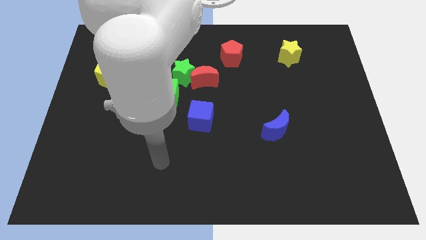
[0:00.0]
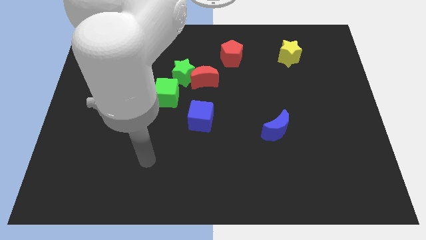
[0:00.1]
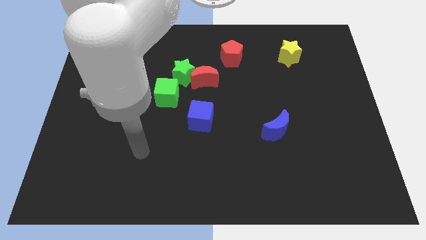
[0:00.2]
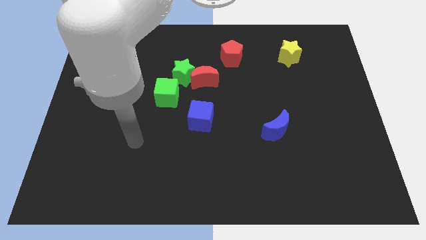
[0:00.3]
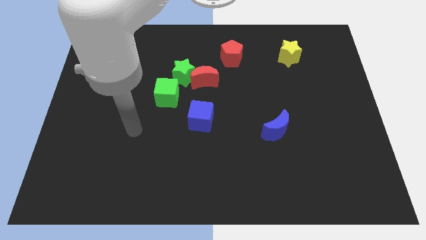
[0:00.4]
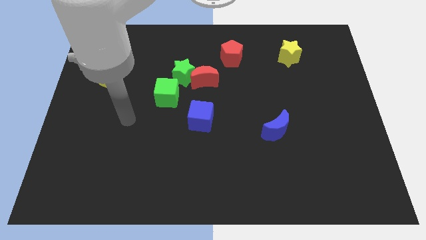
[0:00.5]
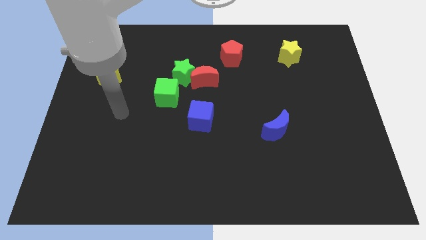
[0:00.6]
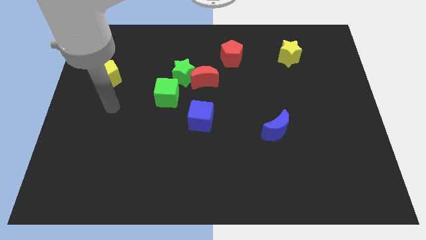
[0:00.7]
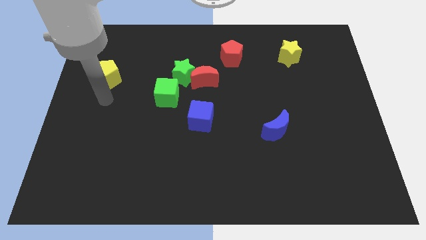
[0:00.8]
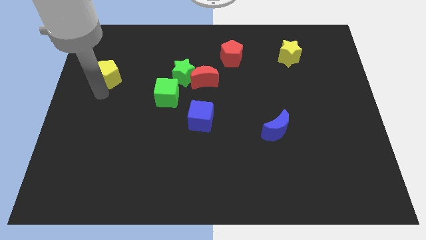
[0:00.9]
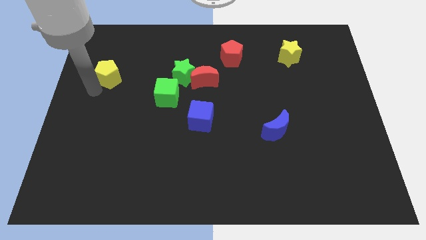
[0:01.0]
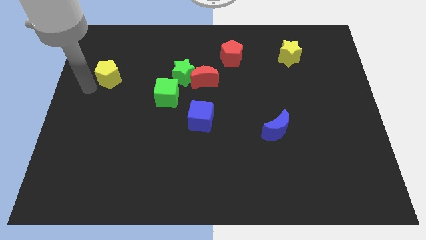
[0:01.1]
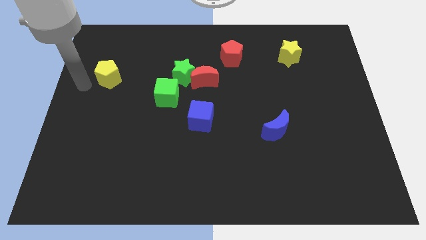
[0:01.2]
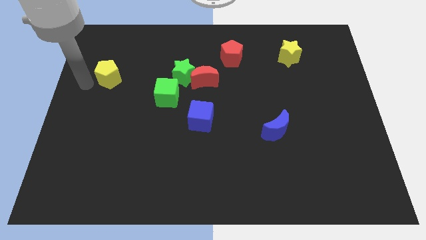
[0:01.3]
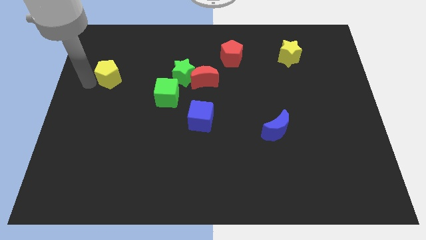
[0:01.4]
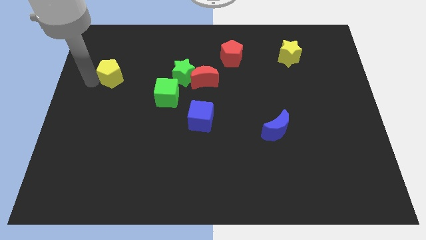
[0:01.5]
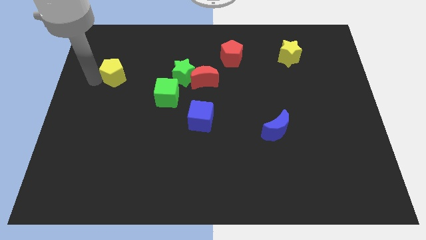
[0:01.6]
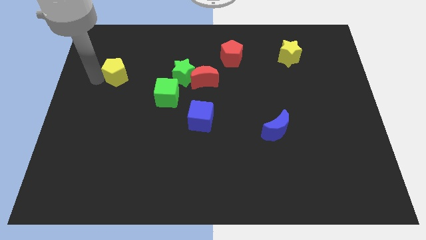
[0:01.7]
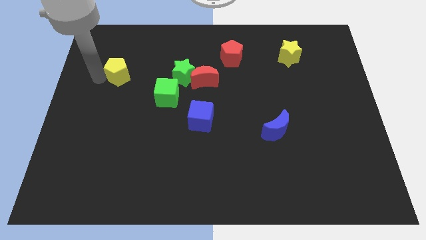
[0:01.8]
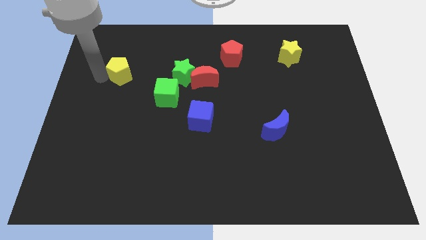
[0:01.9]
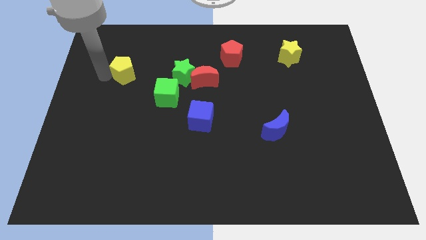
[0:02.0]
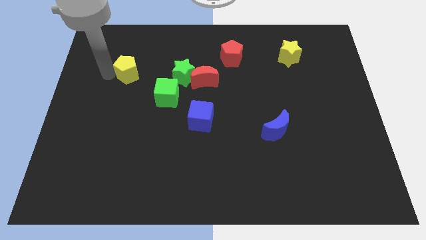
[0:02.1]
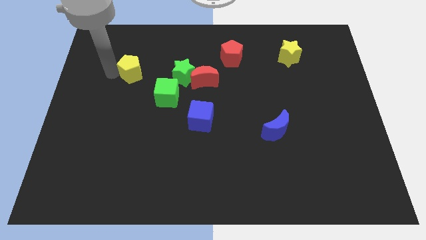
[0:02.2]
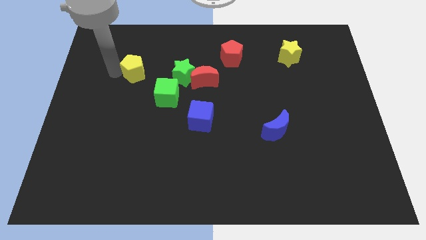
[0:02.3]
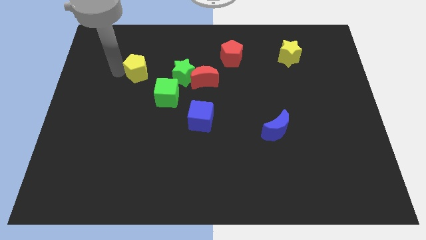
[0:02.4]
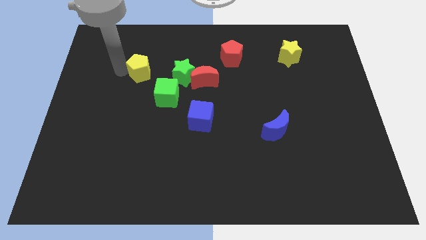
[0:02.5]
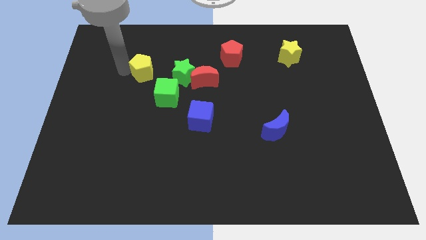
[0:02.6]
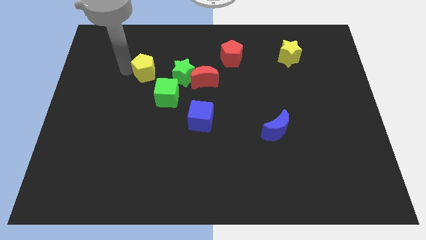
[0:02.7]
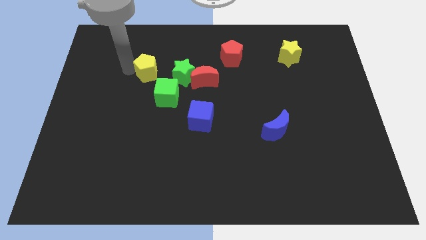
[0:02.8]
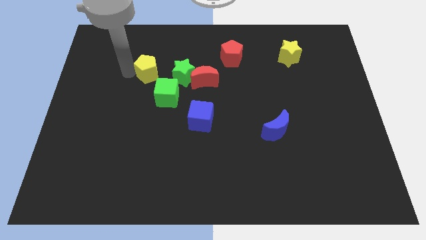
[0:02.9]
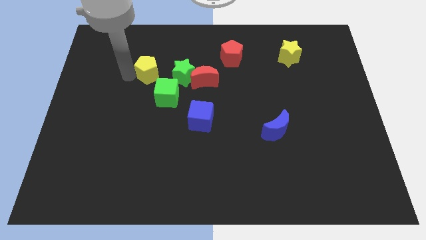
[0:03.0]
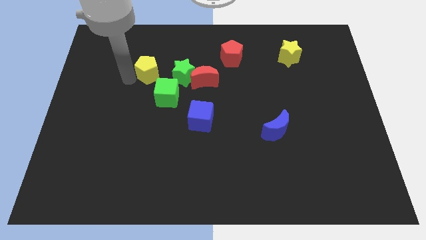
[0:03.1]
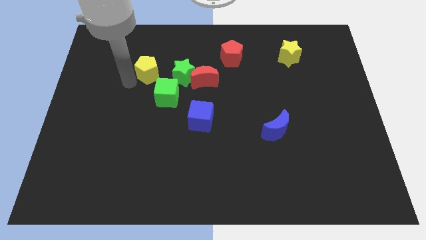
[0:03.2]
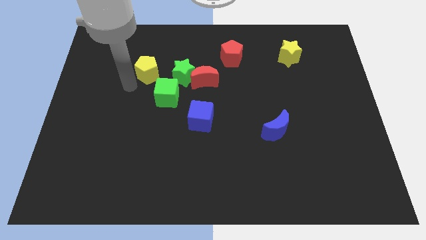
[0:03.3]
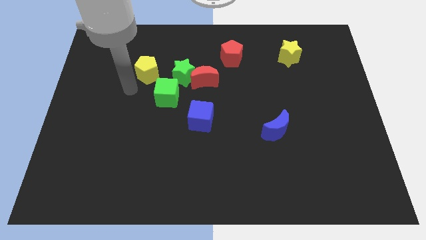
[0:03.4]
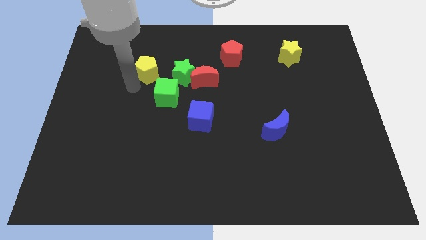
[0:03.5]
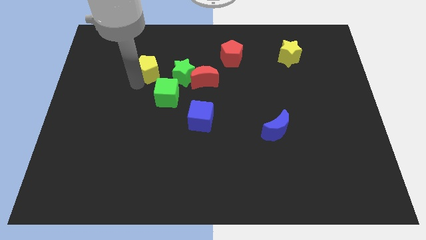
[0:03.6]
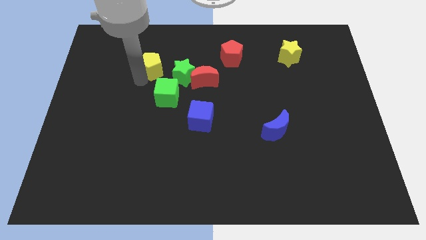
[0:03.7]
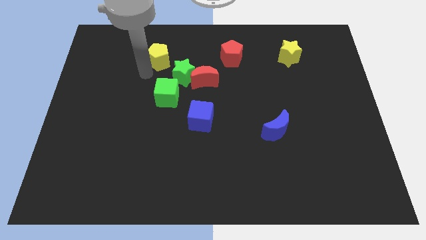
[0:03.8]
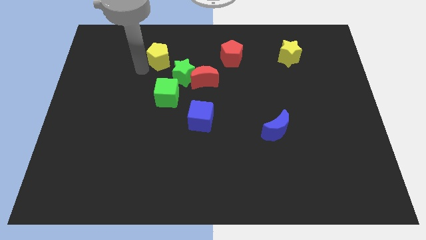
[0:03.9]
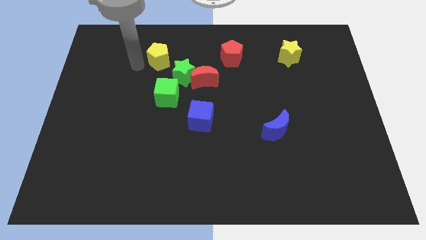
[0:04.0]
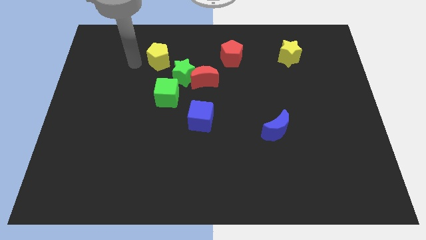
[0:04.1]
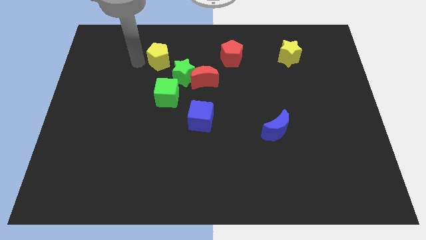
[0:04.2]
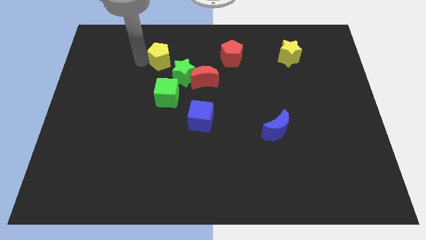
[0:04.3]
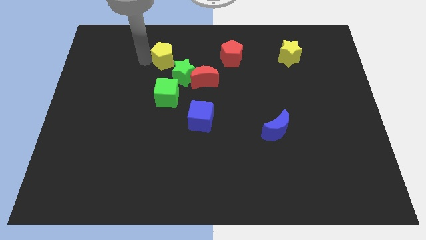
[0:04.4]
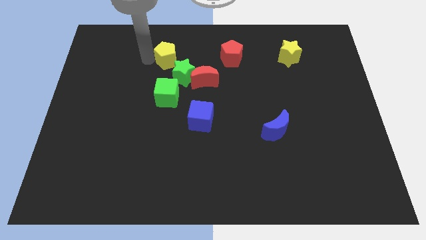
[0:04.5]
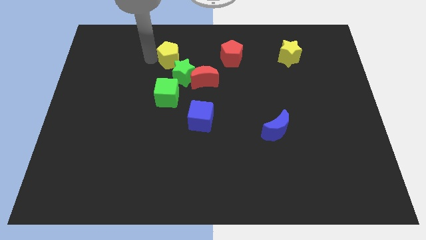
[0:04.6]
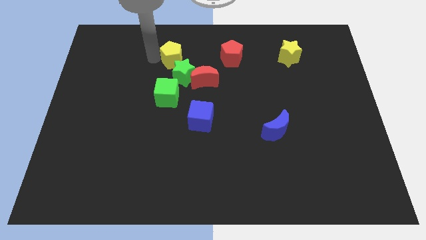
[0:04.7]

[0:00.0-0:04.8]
slide the yellow pentagon just left of the red pentagon

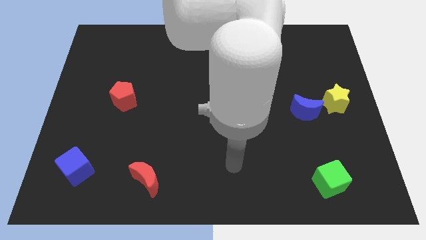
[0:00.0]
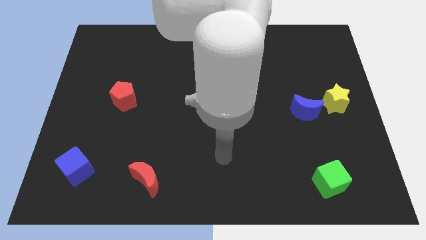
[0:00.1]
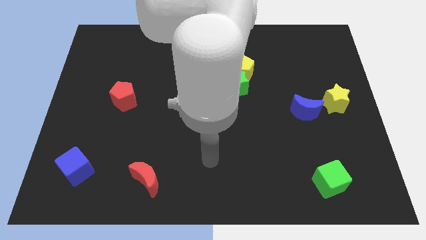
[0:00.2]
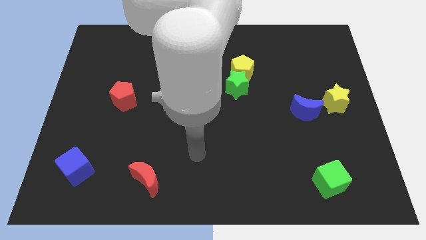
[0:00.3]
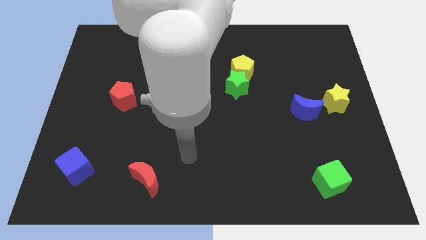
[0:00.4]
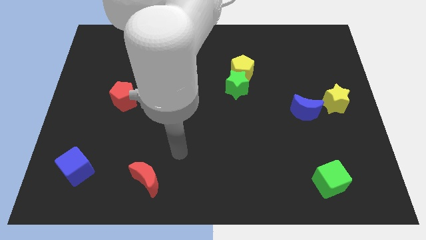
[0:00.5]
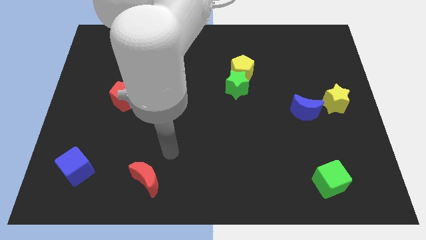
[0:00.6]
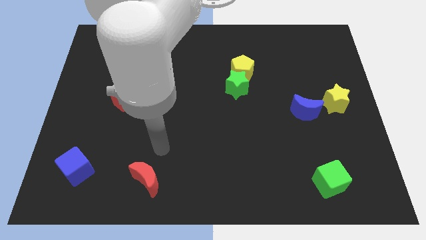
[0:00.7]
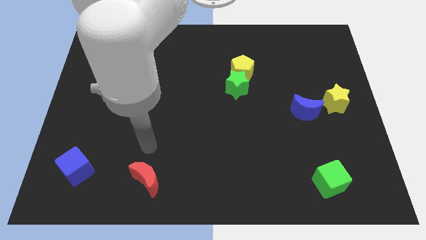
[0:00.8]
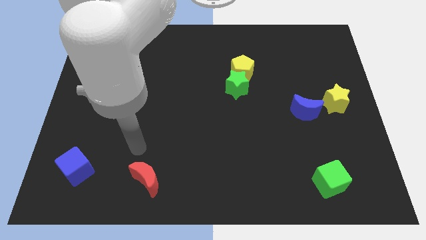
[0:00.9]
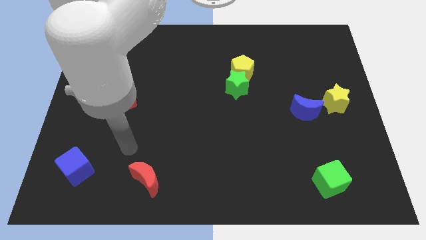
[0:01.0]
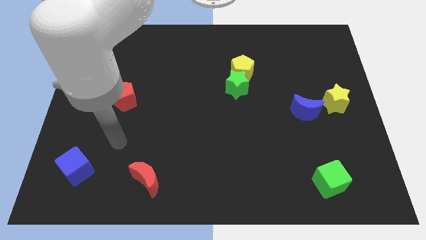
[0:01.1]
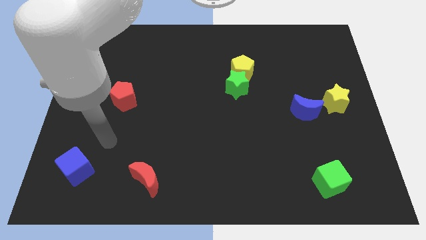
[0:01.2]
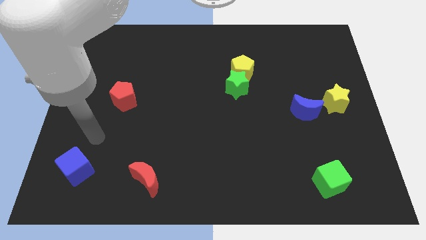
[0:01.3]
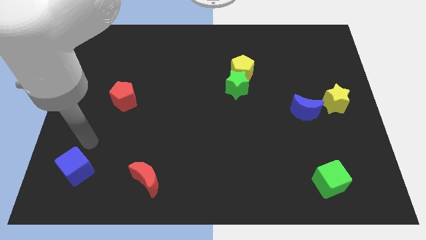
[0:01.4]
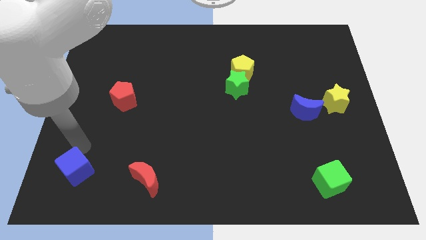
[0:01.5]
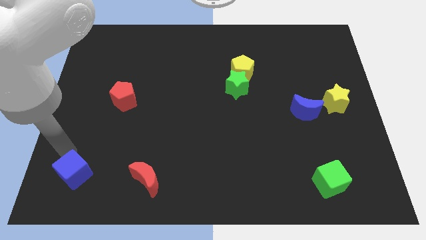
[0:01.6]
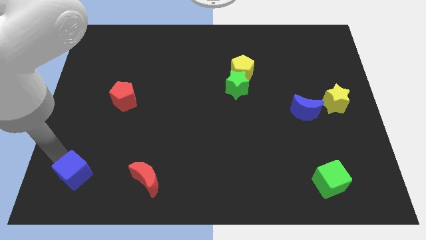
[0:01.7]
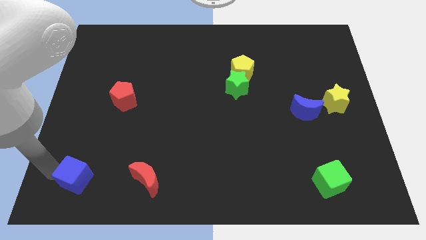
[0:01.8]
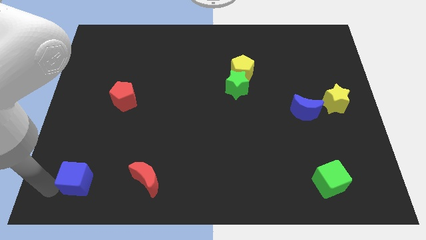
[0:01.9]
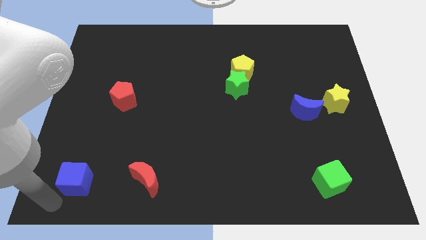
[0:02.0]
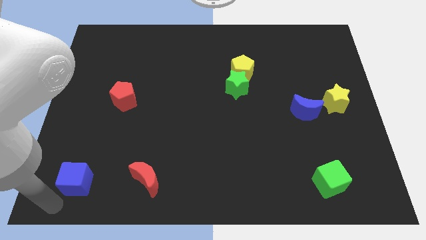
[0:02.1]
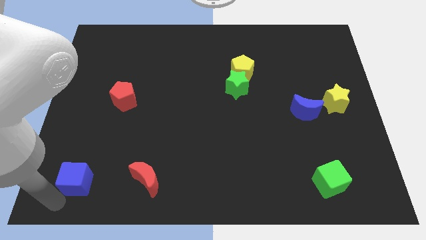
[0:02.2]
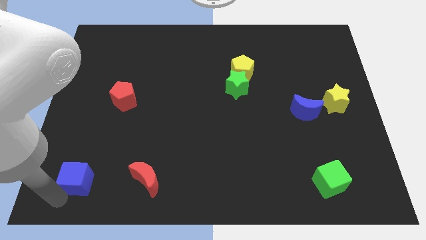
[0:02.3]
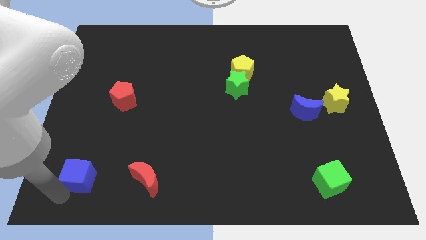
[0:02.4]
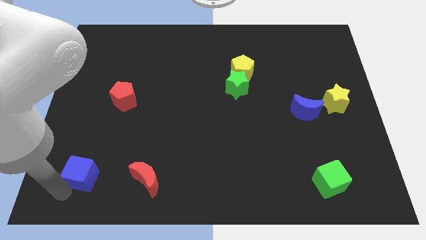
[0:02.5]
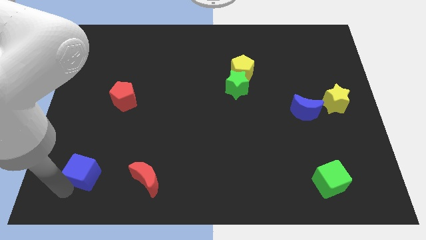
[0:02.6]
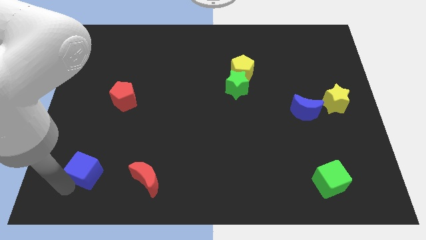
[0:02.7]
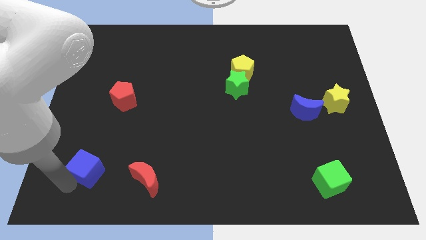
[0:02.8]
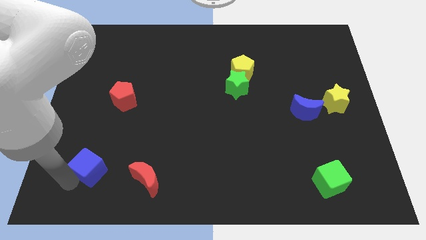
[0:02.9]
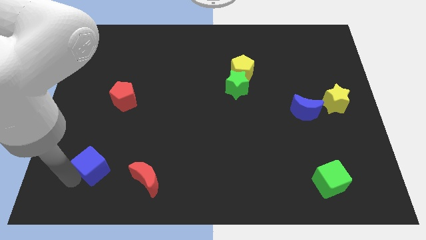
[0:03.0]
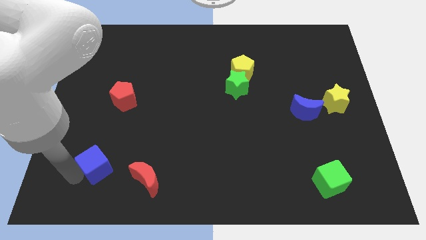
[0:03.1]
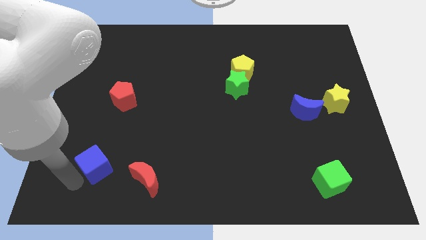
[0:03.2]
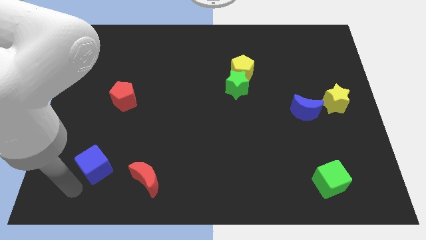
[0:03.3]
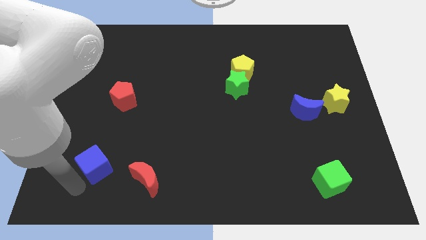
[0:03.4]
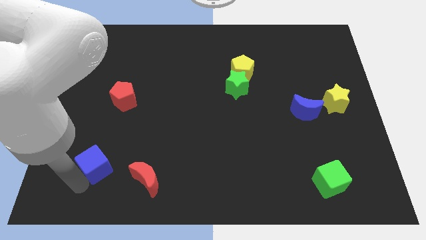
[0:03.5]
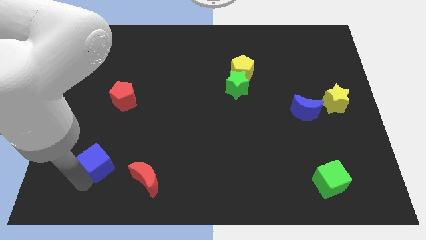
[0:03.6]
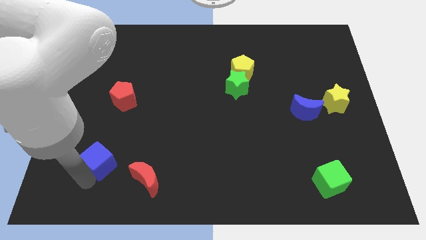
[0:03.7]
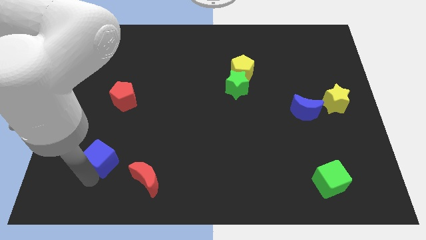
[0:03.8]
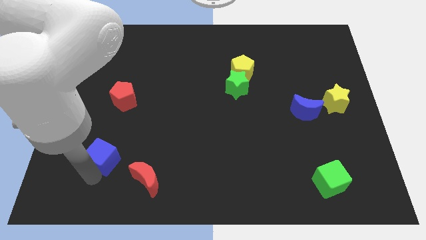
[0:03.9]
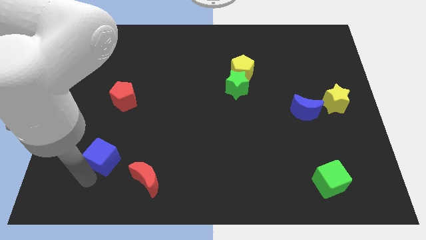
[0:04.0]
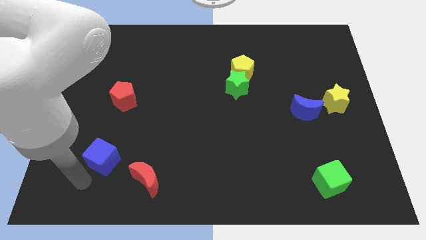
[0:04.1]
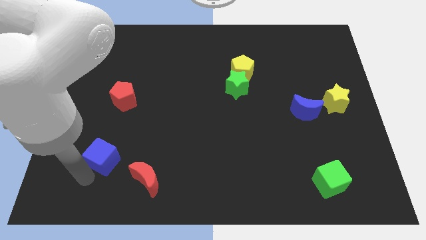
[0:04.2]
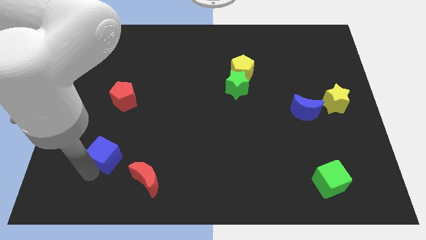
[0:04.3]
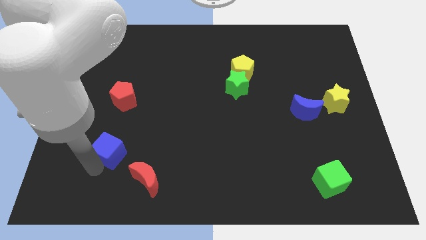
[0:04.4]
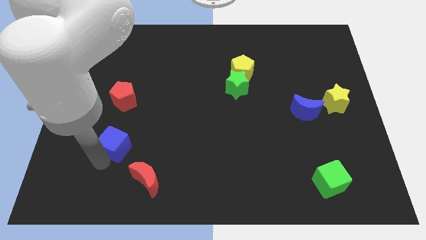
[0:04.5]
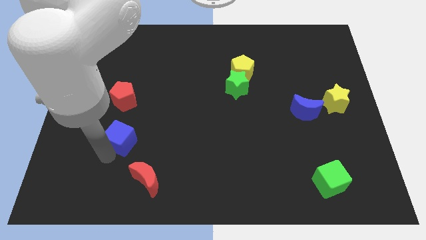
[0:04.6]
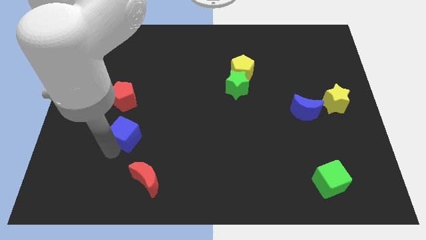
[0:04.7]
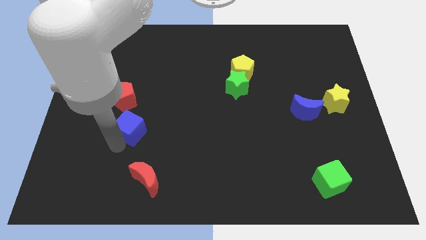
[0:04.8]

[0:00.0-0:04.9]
put the blue cube diagonally down and to the right of the red pentagon
